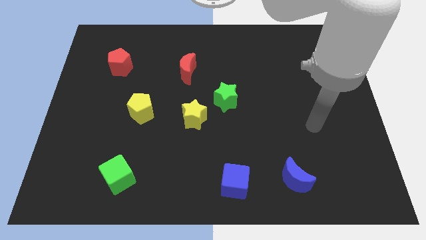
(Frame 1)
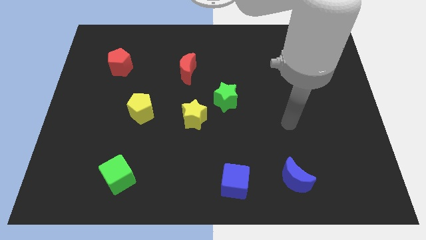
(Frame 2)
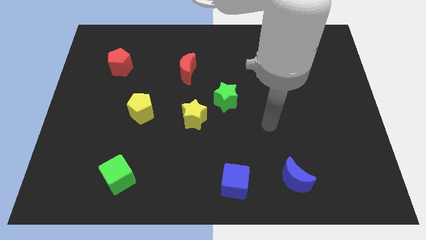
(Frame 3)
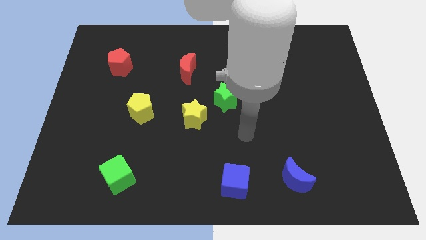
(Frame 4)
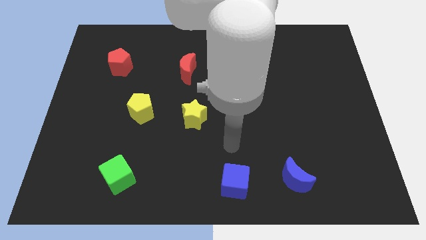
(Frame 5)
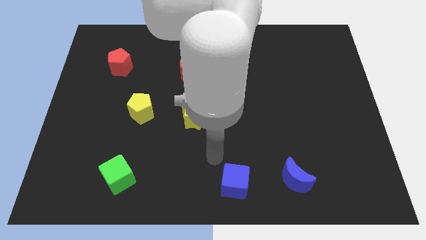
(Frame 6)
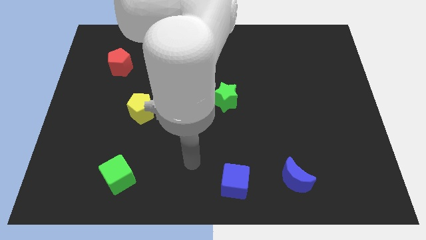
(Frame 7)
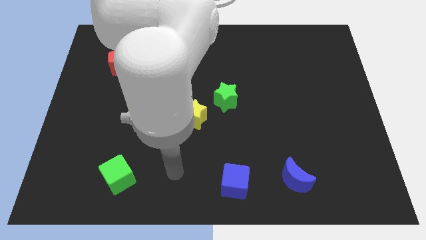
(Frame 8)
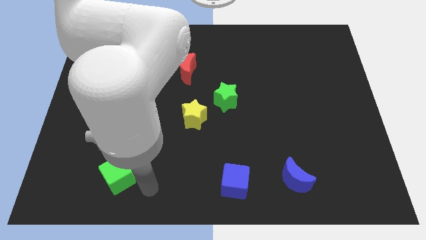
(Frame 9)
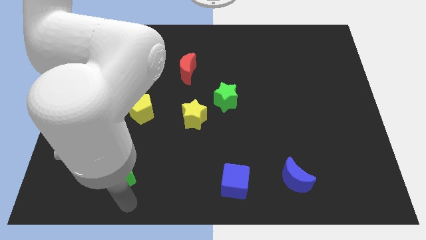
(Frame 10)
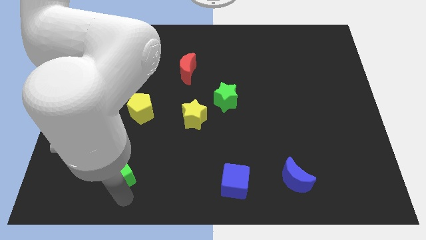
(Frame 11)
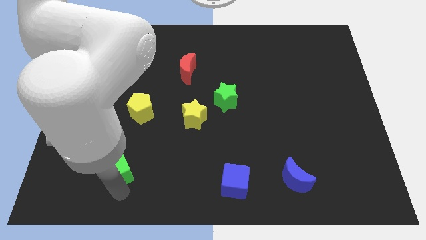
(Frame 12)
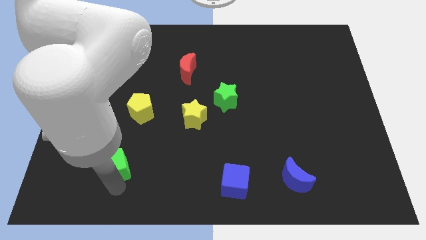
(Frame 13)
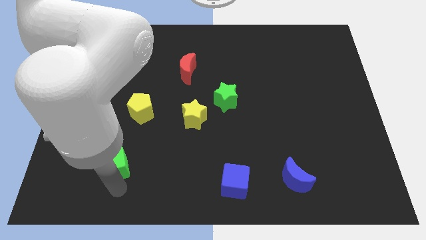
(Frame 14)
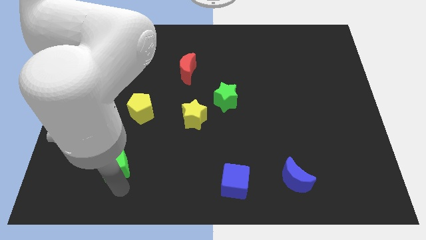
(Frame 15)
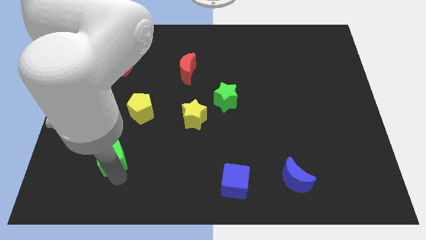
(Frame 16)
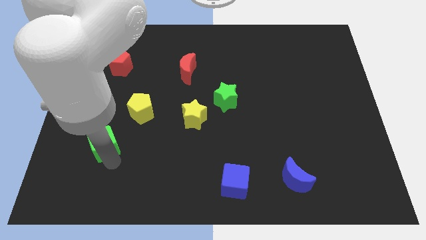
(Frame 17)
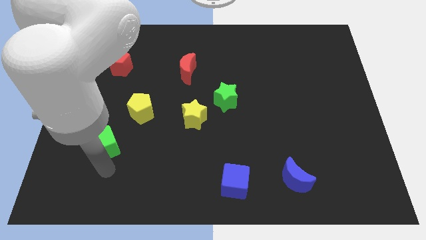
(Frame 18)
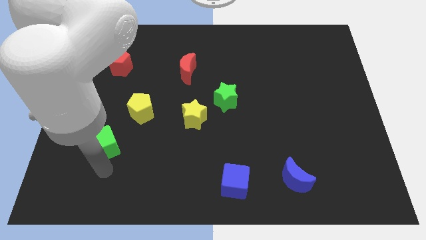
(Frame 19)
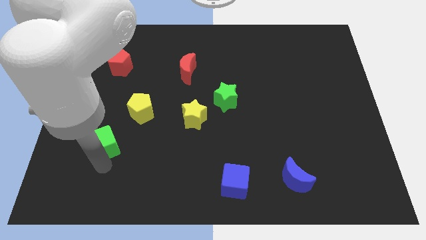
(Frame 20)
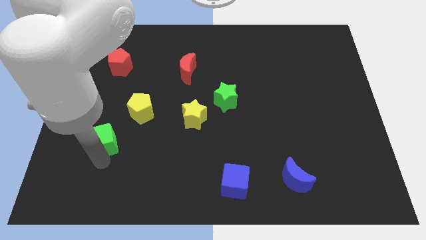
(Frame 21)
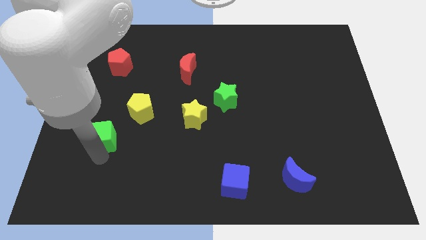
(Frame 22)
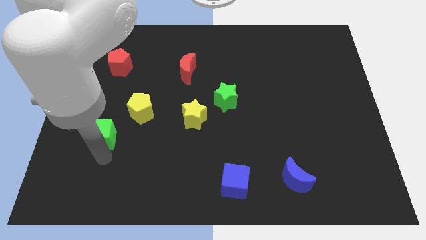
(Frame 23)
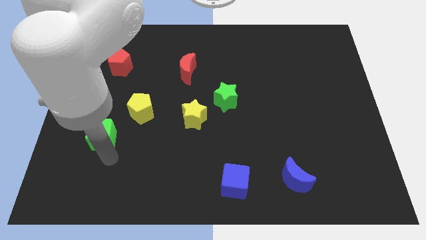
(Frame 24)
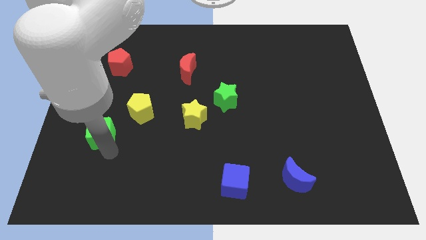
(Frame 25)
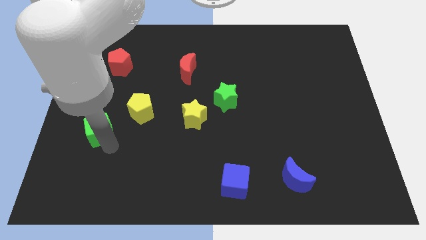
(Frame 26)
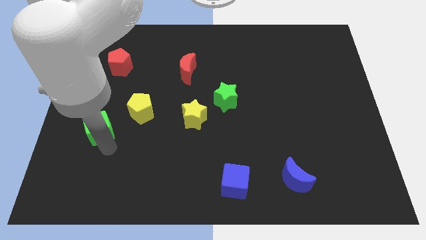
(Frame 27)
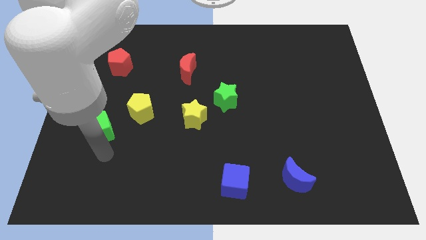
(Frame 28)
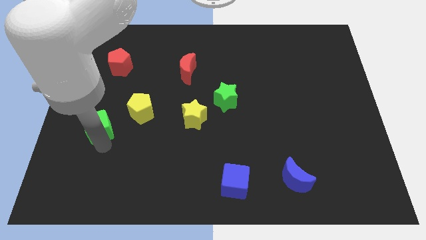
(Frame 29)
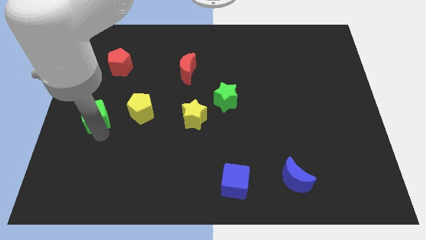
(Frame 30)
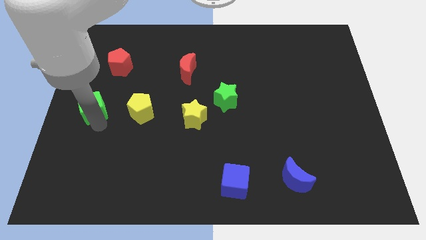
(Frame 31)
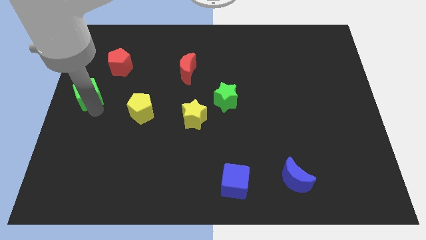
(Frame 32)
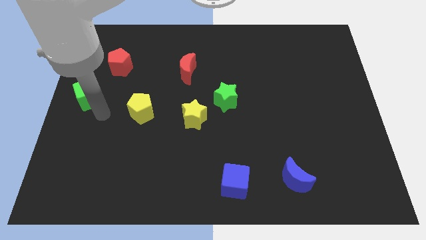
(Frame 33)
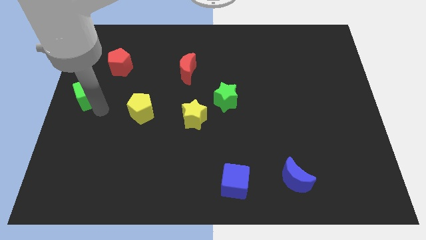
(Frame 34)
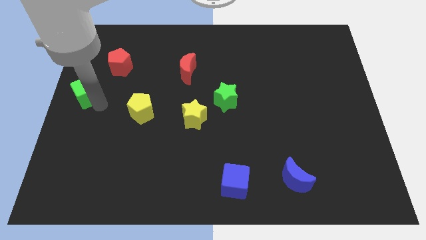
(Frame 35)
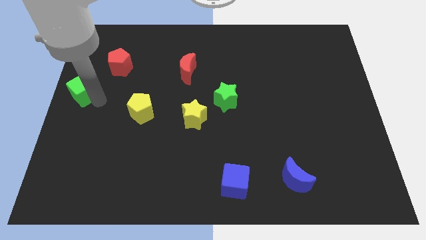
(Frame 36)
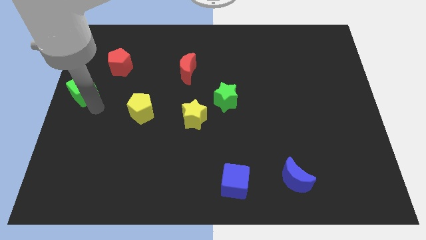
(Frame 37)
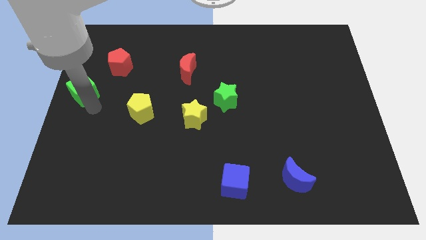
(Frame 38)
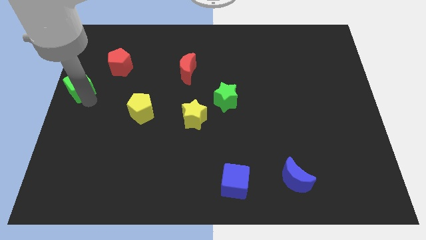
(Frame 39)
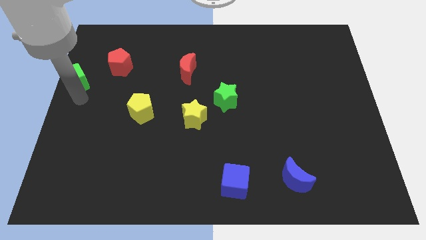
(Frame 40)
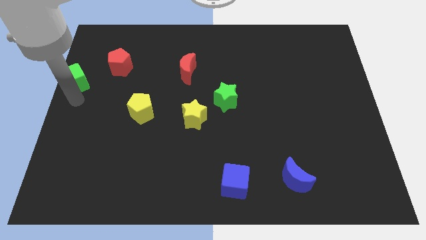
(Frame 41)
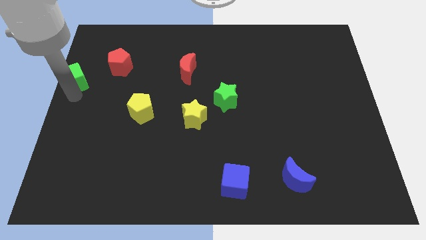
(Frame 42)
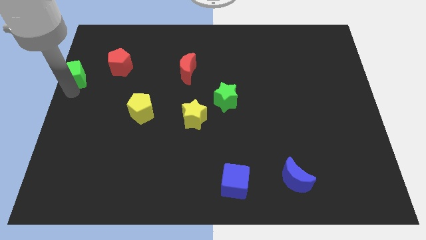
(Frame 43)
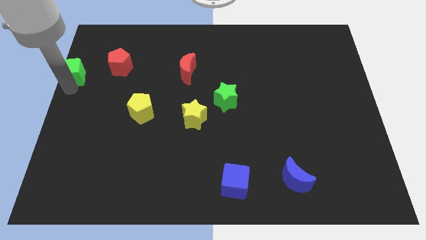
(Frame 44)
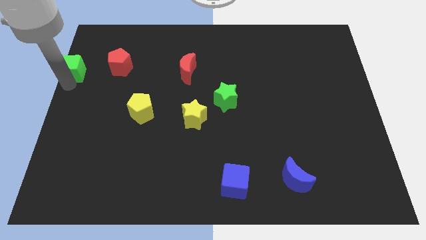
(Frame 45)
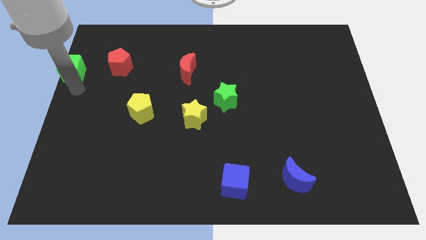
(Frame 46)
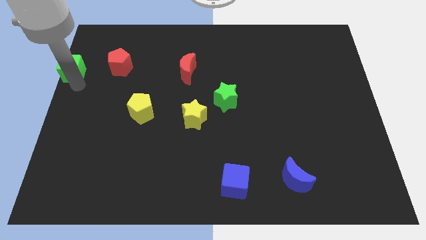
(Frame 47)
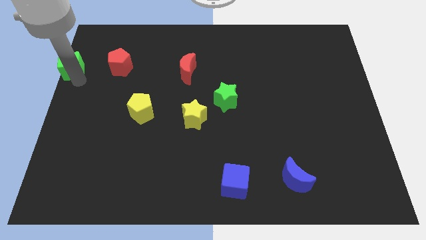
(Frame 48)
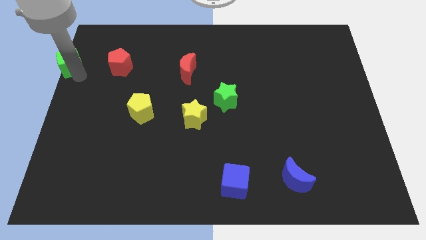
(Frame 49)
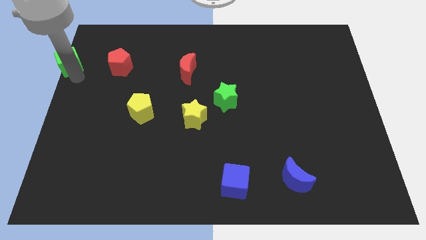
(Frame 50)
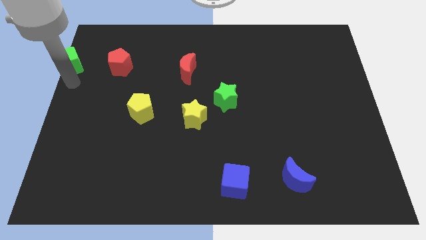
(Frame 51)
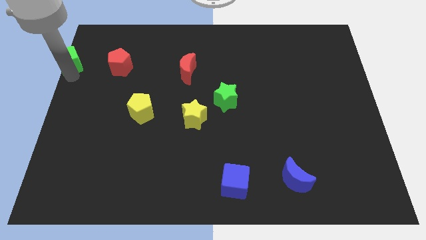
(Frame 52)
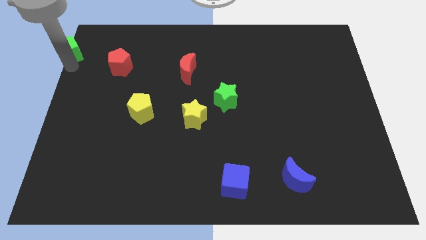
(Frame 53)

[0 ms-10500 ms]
push the green cube to the top left of the board

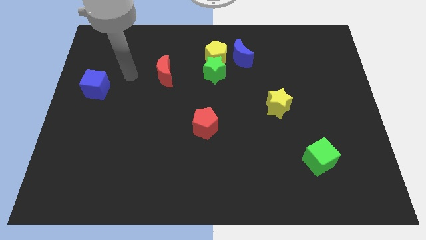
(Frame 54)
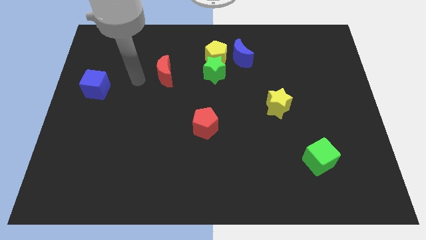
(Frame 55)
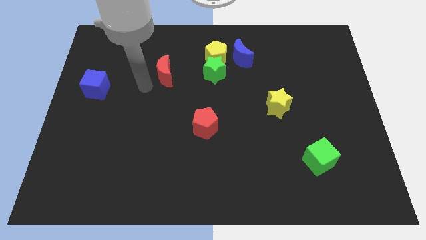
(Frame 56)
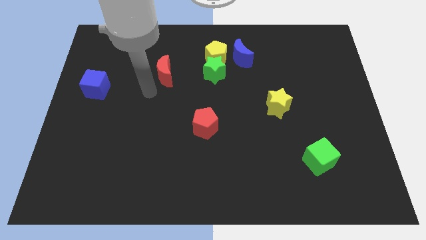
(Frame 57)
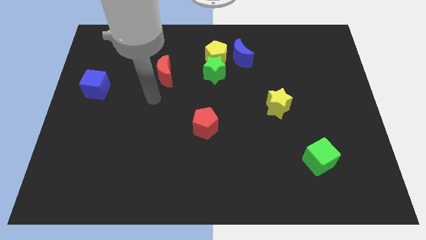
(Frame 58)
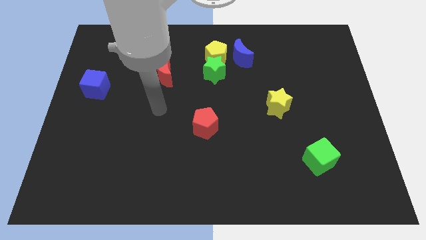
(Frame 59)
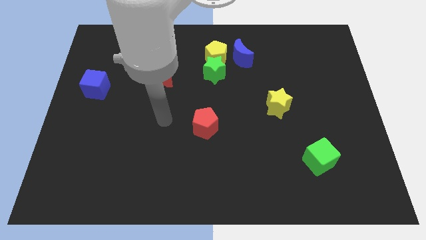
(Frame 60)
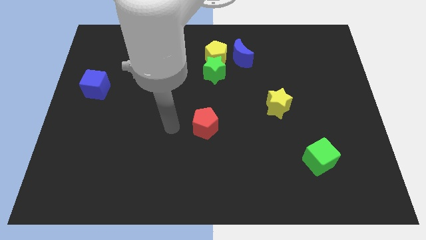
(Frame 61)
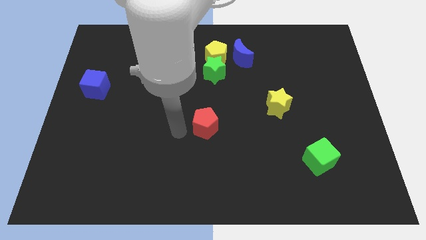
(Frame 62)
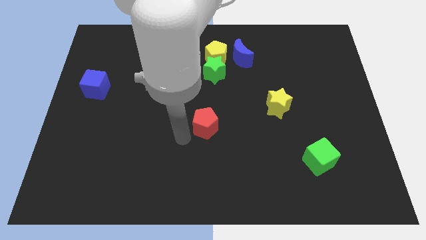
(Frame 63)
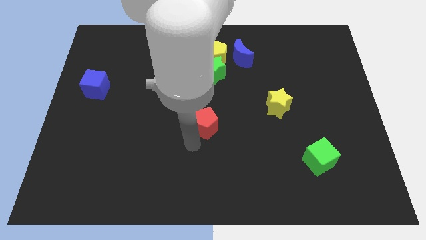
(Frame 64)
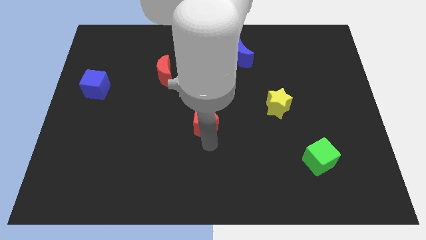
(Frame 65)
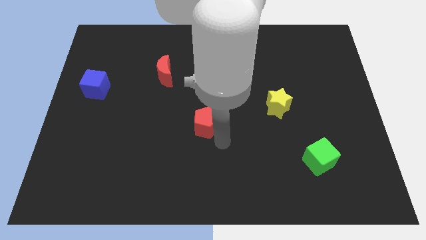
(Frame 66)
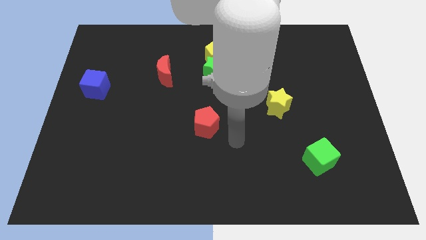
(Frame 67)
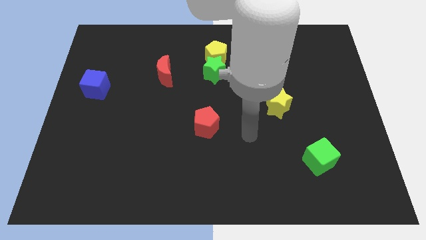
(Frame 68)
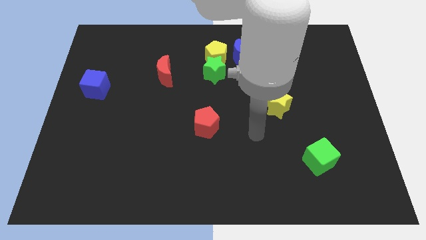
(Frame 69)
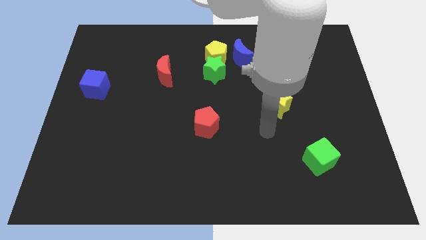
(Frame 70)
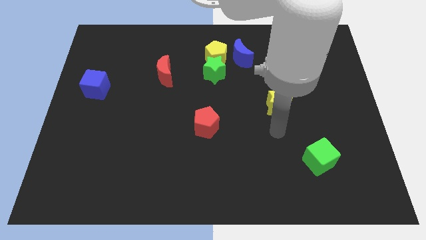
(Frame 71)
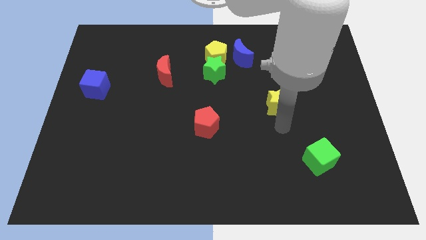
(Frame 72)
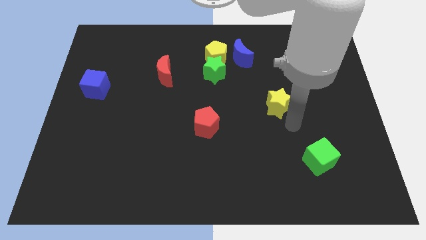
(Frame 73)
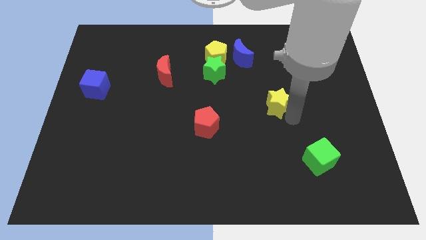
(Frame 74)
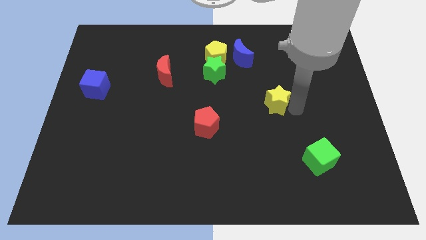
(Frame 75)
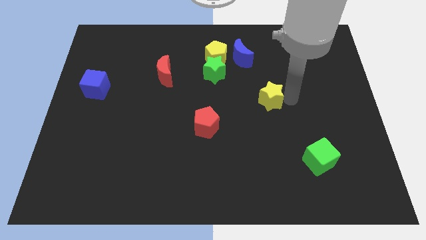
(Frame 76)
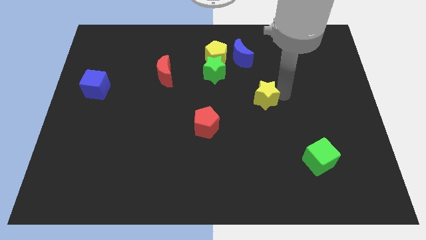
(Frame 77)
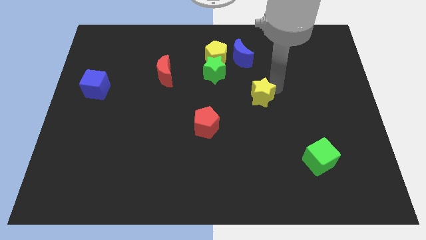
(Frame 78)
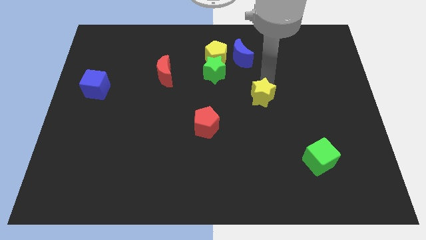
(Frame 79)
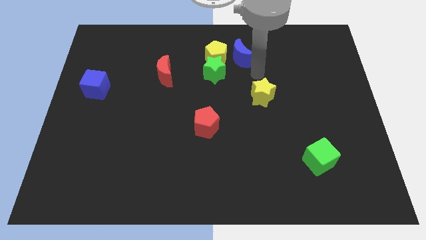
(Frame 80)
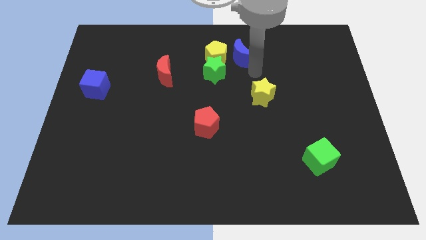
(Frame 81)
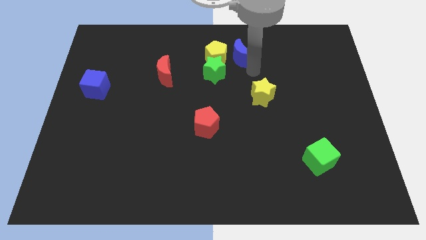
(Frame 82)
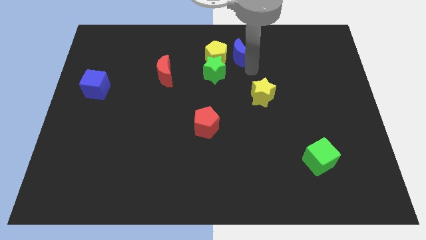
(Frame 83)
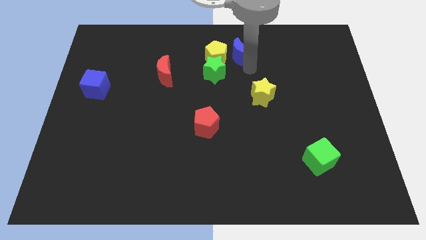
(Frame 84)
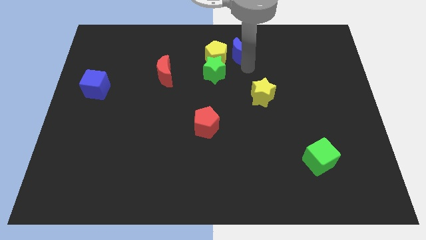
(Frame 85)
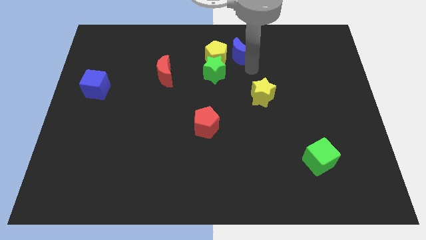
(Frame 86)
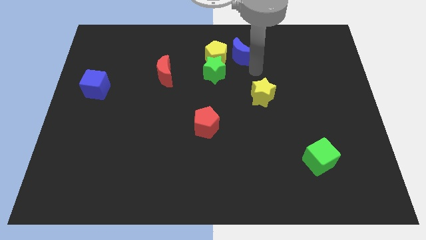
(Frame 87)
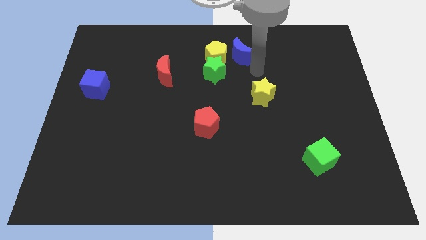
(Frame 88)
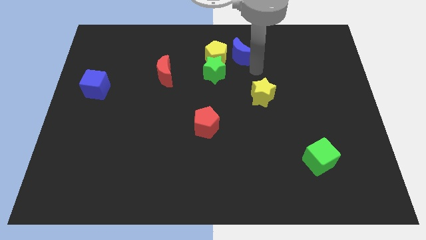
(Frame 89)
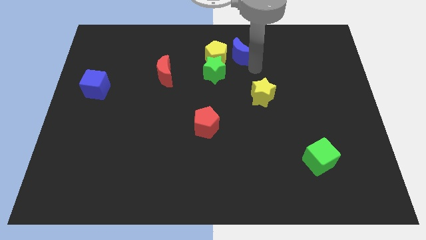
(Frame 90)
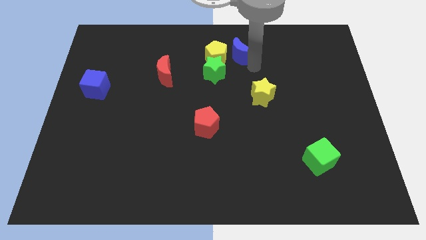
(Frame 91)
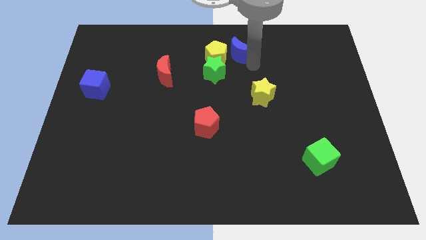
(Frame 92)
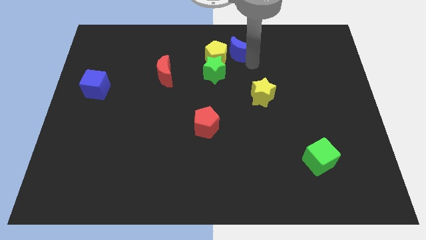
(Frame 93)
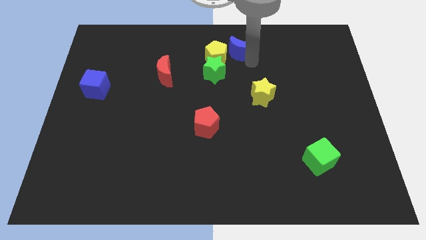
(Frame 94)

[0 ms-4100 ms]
push the blue moon to the top side
